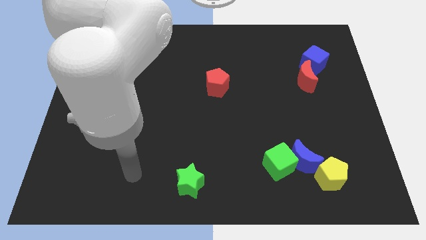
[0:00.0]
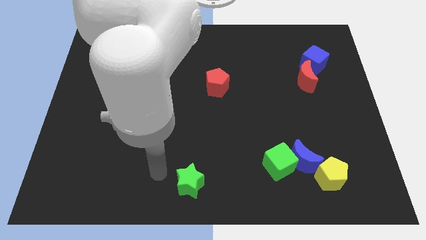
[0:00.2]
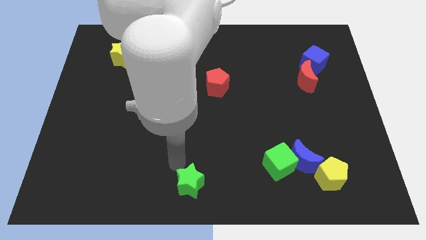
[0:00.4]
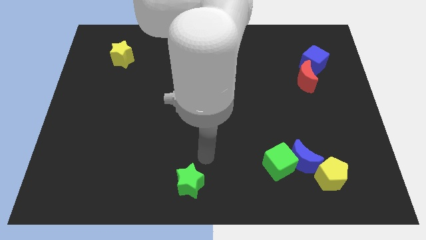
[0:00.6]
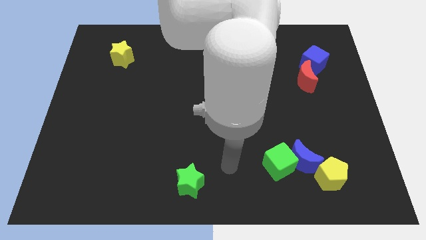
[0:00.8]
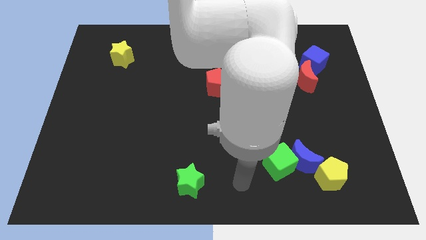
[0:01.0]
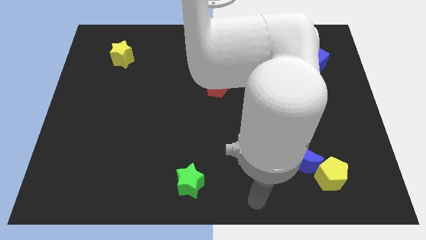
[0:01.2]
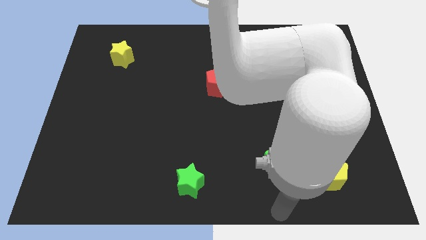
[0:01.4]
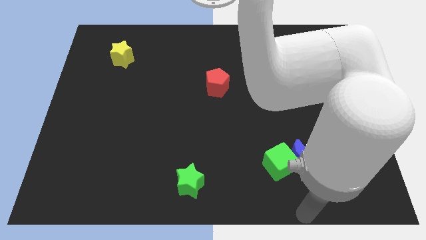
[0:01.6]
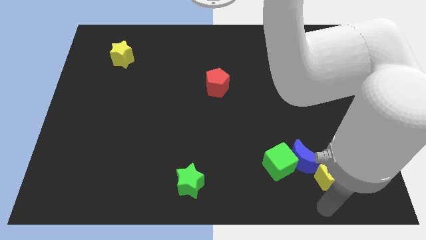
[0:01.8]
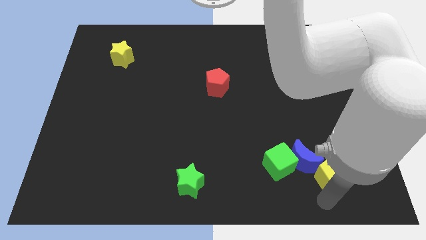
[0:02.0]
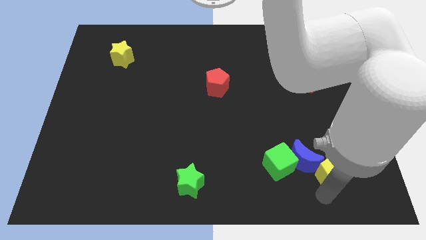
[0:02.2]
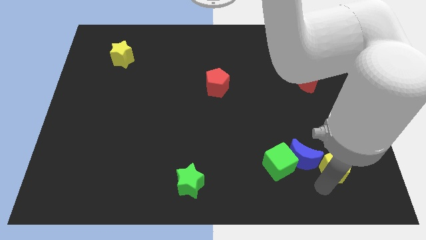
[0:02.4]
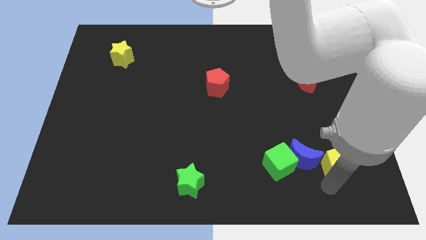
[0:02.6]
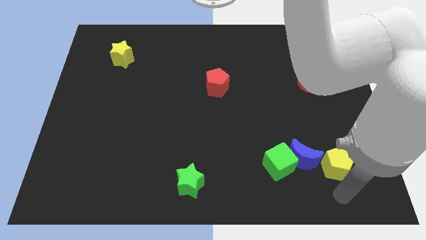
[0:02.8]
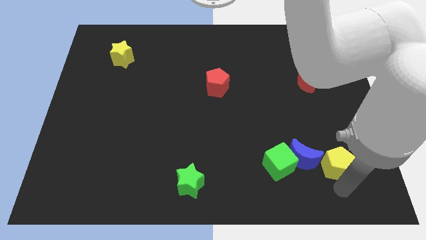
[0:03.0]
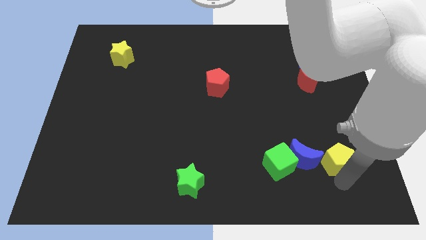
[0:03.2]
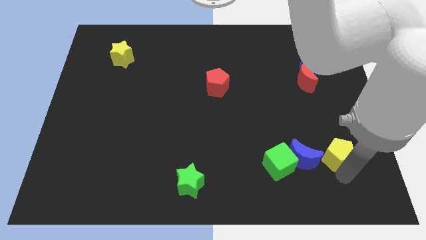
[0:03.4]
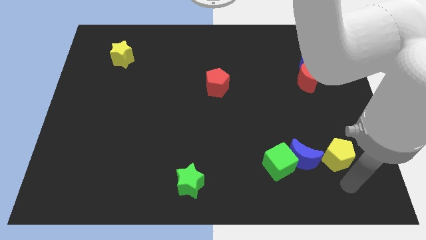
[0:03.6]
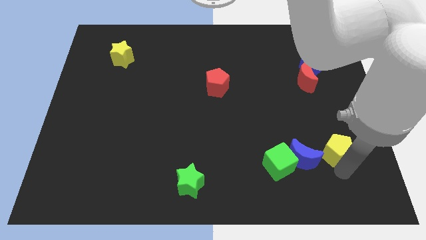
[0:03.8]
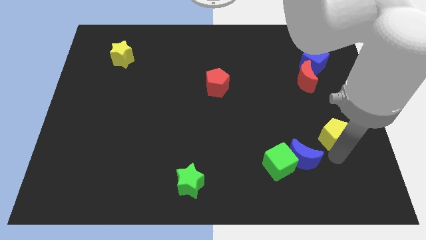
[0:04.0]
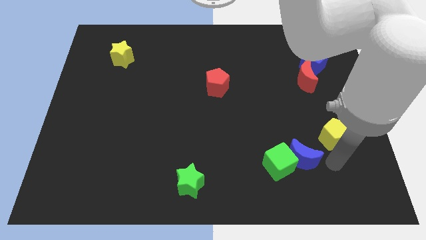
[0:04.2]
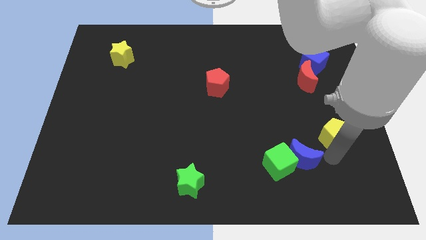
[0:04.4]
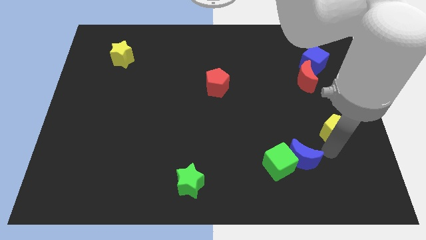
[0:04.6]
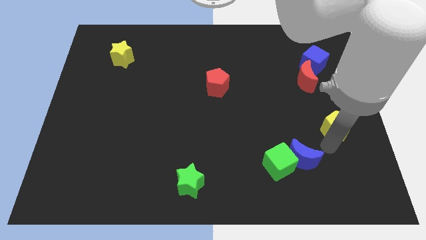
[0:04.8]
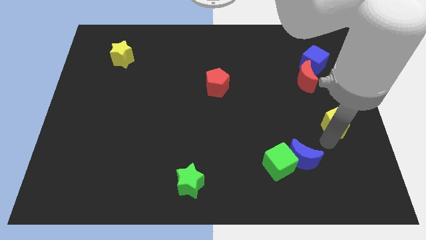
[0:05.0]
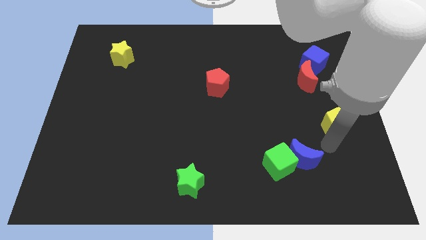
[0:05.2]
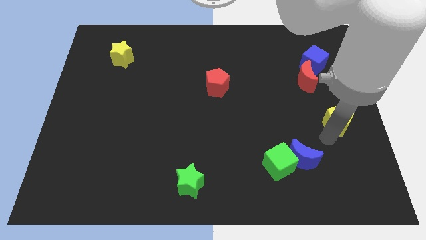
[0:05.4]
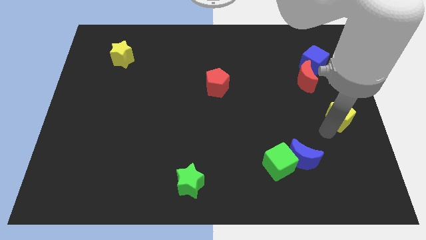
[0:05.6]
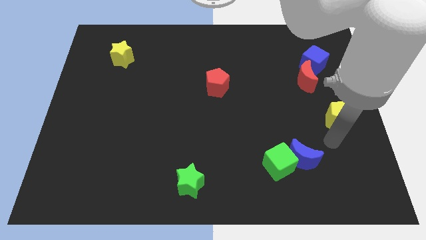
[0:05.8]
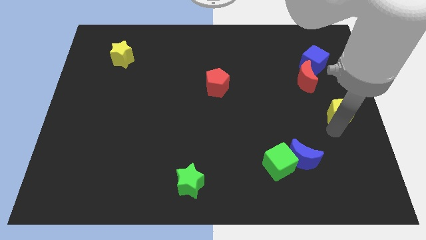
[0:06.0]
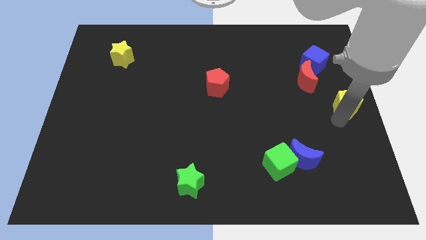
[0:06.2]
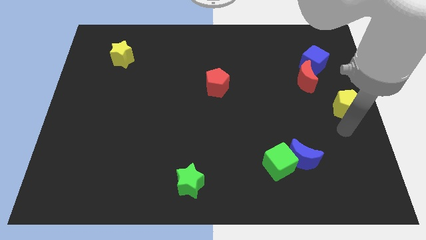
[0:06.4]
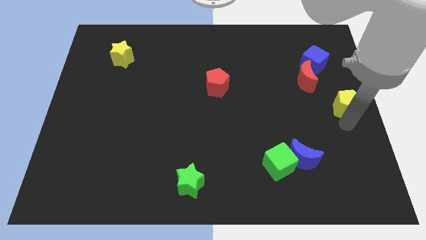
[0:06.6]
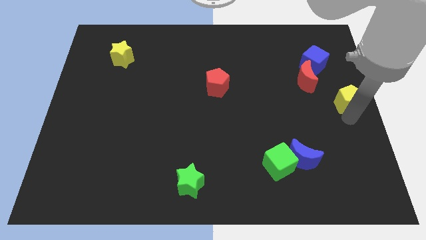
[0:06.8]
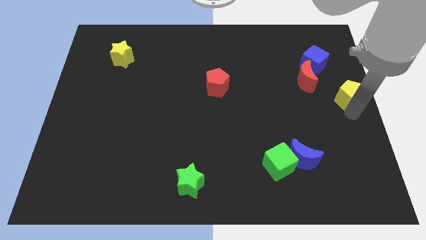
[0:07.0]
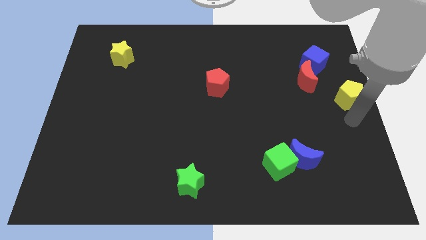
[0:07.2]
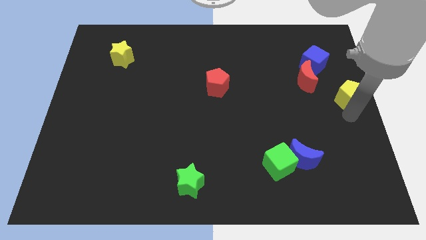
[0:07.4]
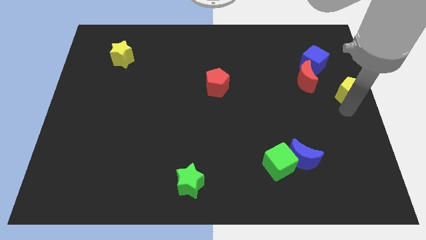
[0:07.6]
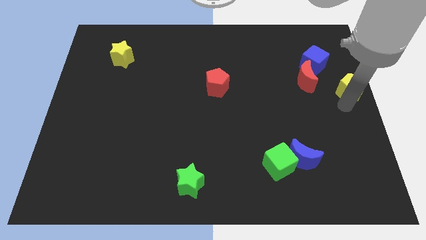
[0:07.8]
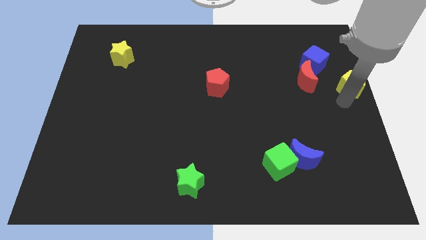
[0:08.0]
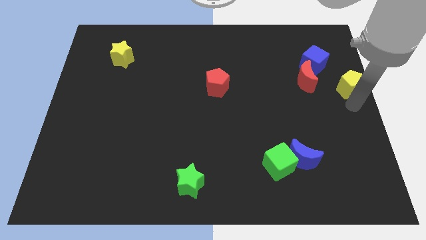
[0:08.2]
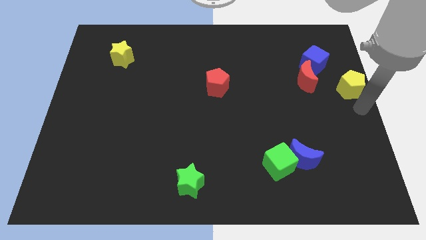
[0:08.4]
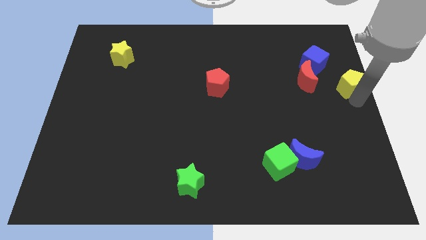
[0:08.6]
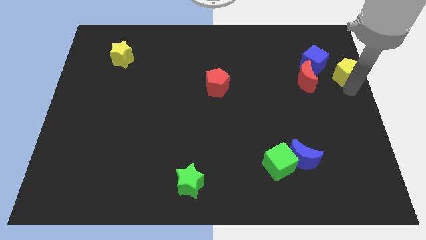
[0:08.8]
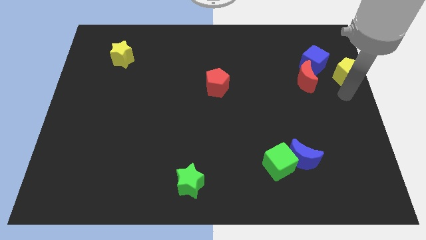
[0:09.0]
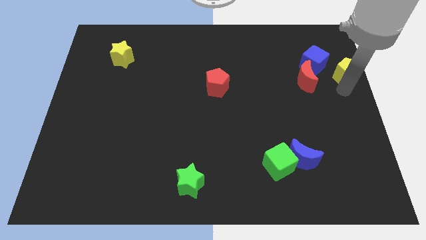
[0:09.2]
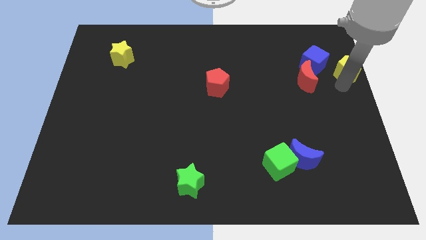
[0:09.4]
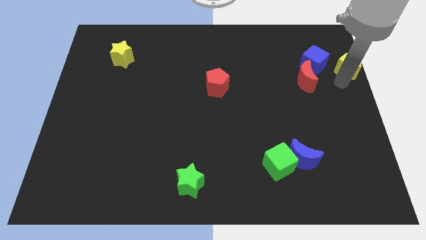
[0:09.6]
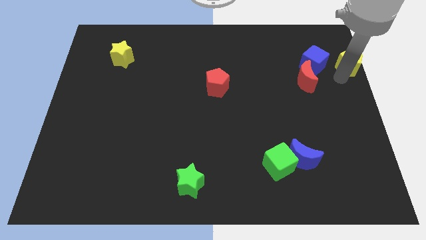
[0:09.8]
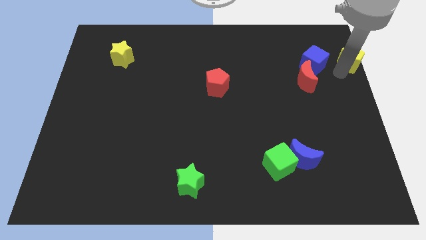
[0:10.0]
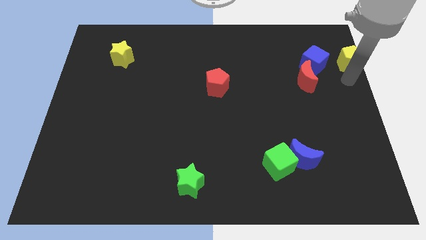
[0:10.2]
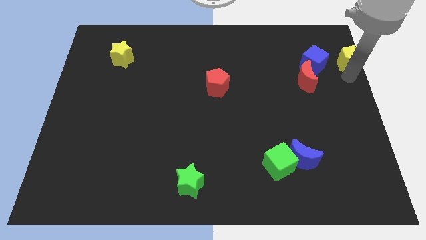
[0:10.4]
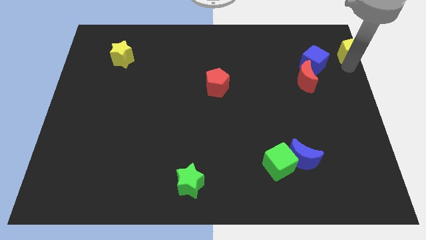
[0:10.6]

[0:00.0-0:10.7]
move the yellow pentagon to the top right of the board
